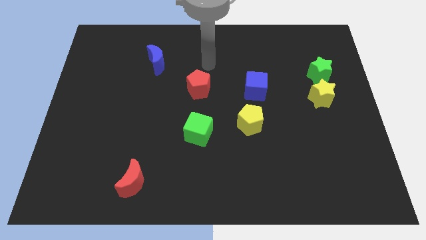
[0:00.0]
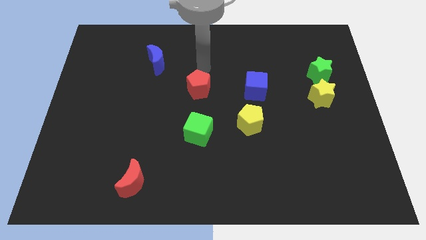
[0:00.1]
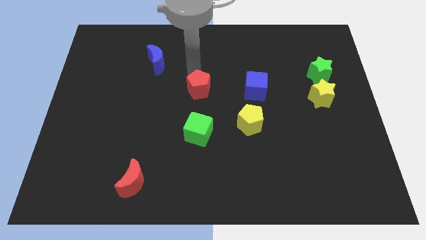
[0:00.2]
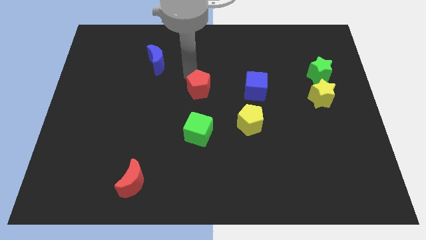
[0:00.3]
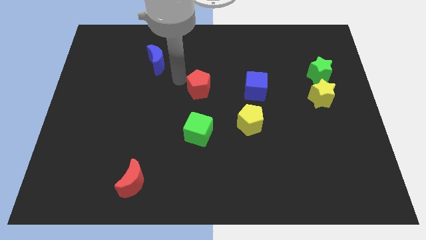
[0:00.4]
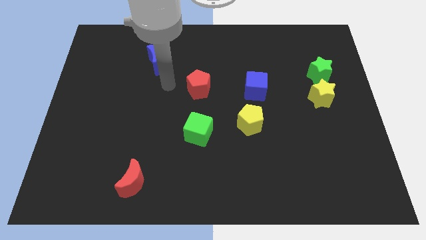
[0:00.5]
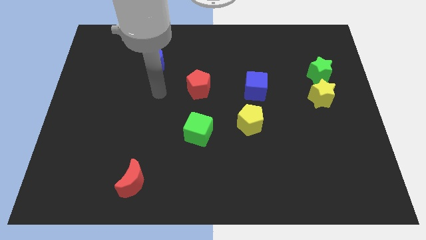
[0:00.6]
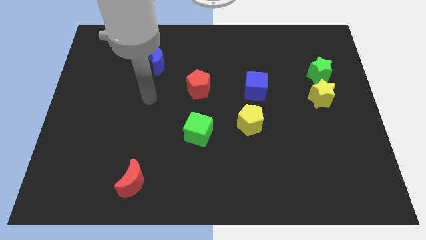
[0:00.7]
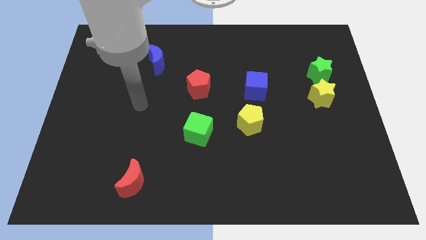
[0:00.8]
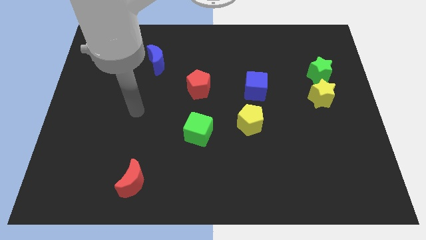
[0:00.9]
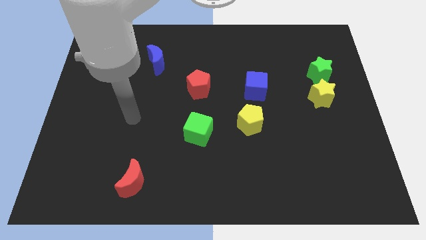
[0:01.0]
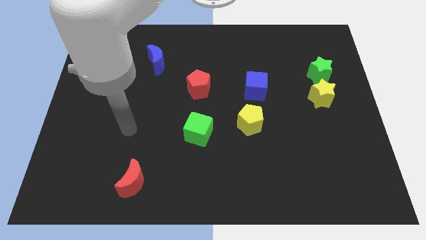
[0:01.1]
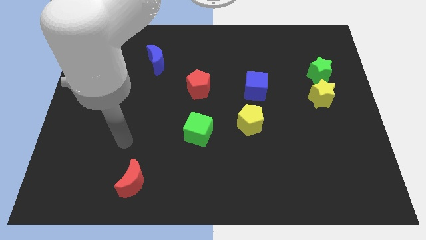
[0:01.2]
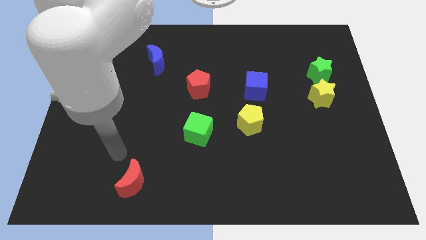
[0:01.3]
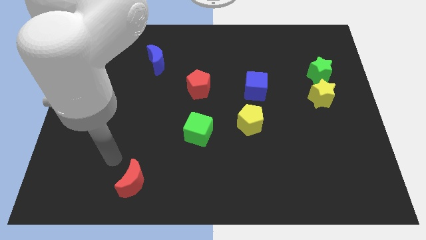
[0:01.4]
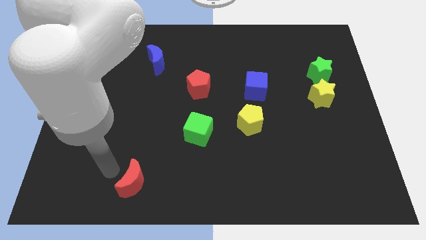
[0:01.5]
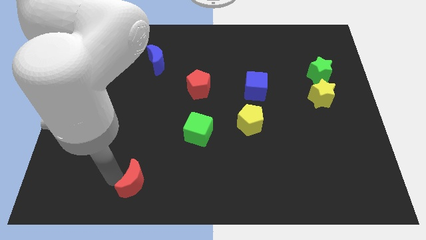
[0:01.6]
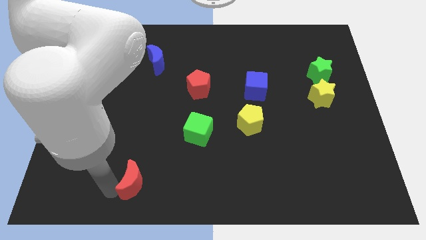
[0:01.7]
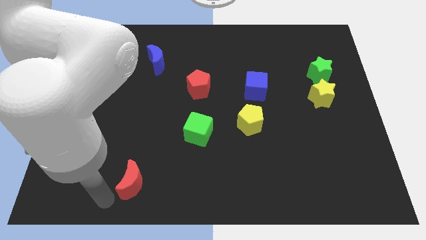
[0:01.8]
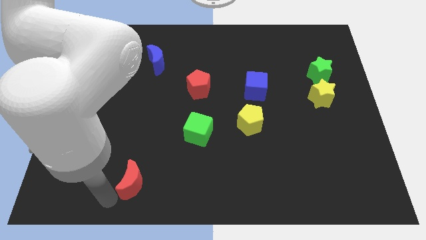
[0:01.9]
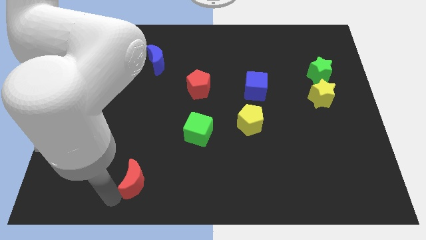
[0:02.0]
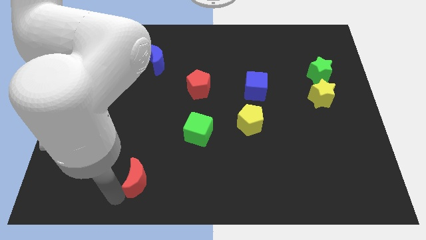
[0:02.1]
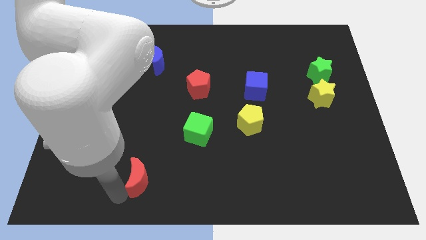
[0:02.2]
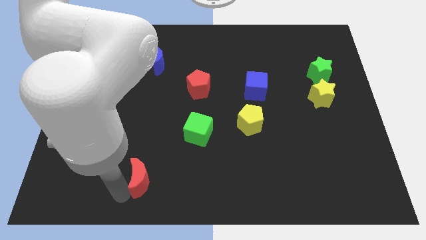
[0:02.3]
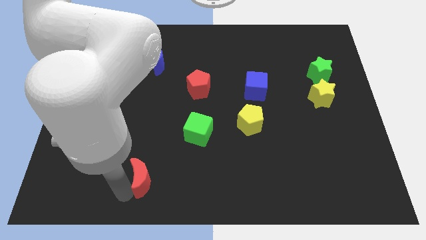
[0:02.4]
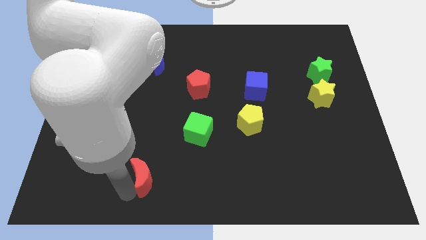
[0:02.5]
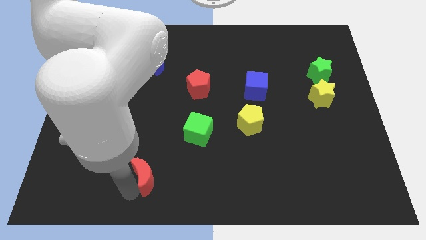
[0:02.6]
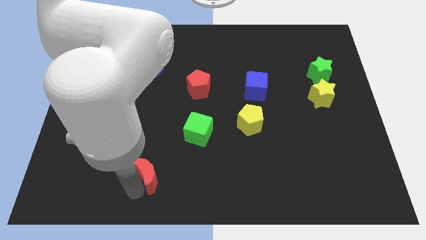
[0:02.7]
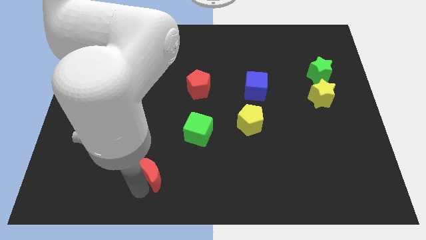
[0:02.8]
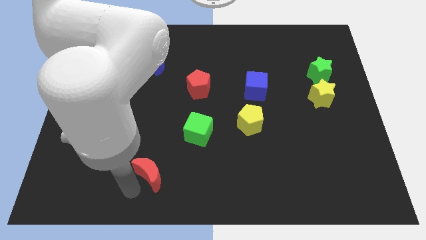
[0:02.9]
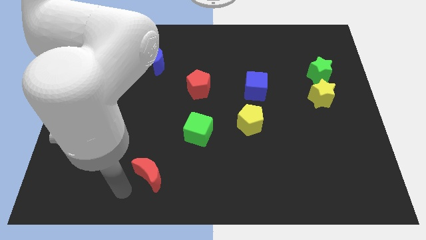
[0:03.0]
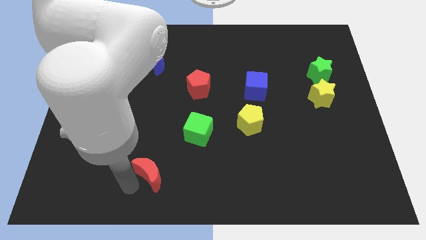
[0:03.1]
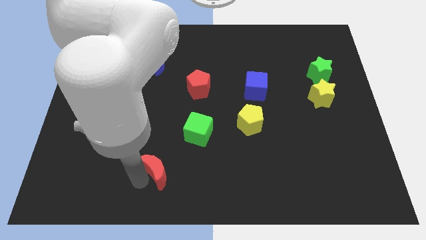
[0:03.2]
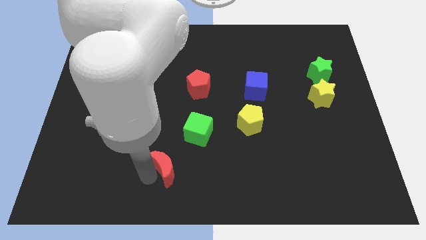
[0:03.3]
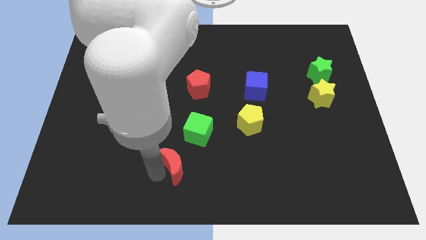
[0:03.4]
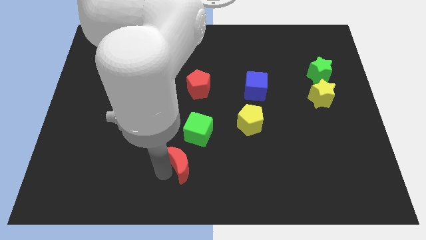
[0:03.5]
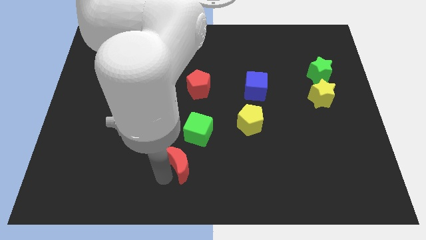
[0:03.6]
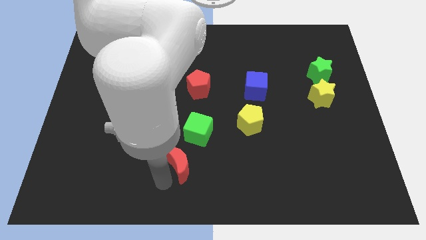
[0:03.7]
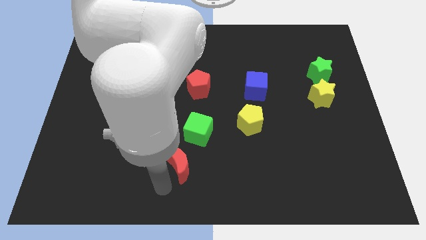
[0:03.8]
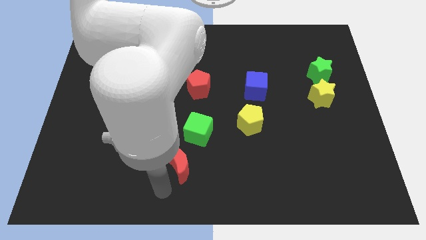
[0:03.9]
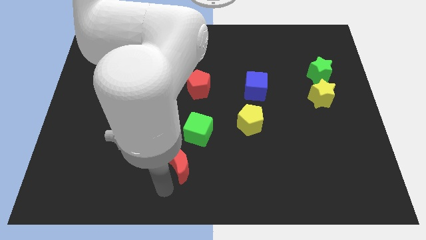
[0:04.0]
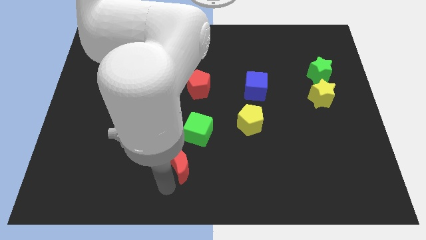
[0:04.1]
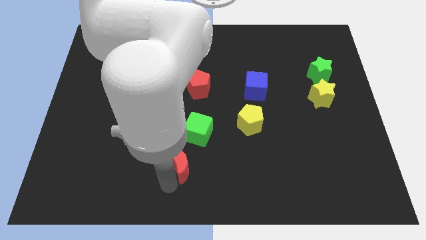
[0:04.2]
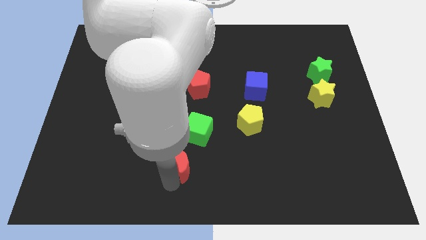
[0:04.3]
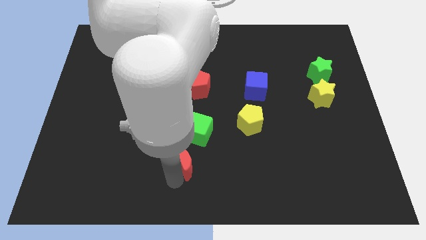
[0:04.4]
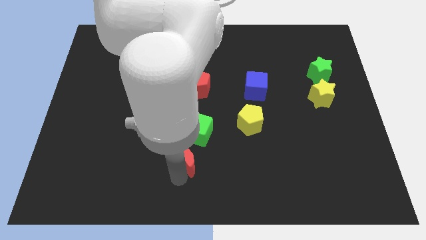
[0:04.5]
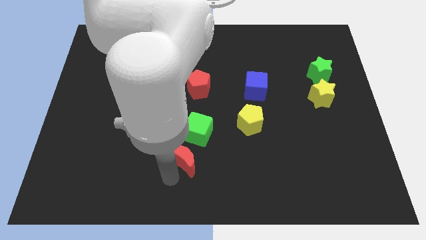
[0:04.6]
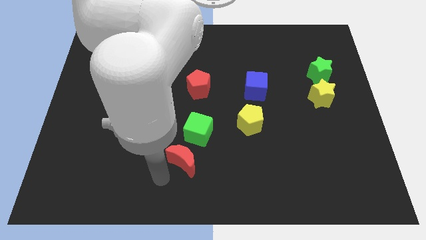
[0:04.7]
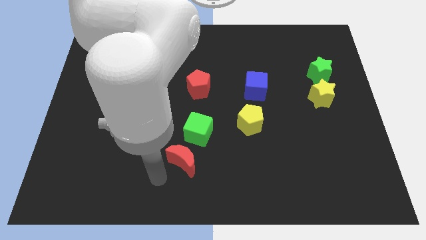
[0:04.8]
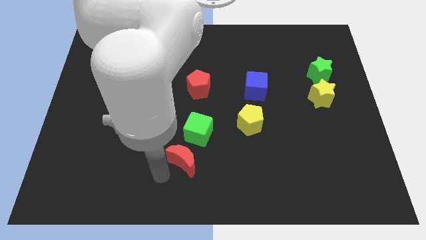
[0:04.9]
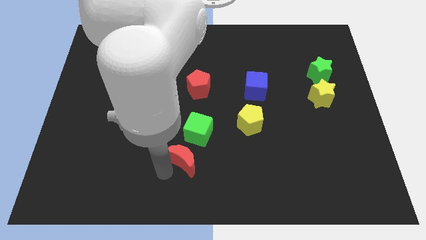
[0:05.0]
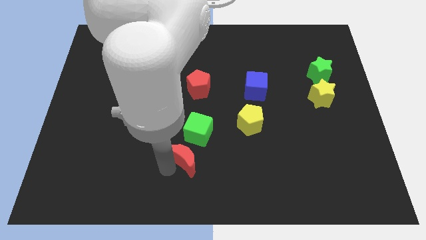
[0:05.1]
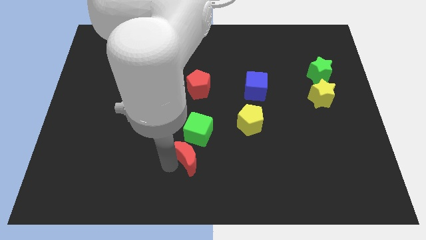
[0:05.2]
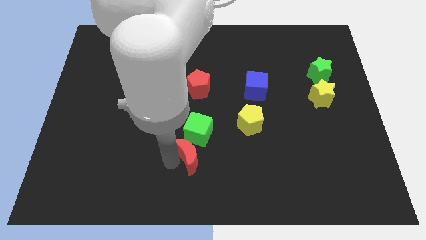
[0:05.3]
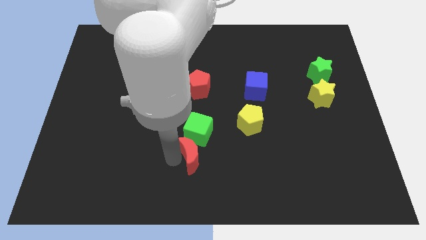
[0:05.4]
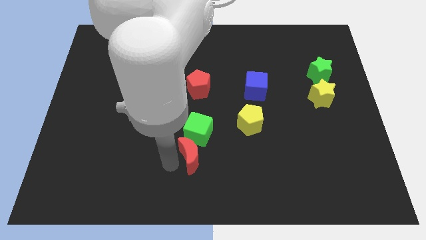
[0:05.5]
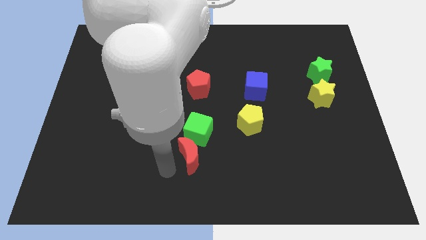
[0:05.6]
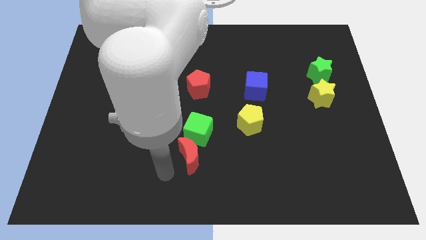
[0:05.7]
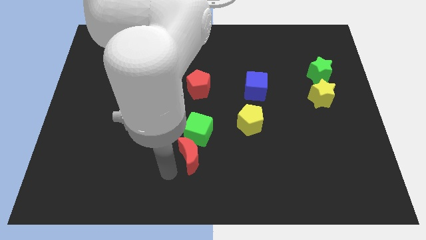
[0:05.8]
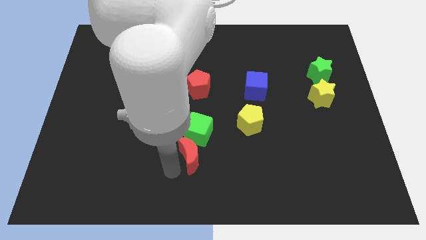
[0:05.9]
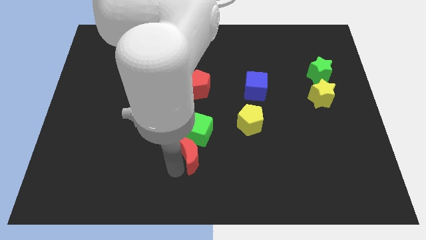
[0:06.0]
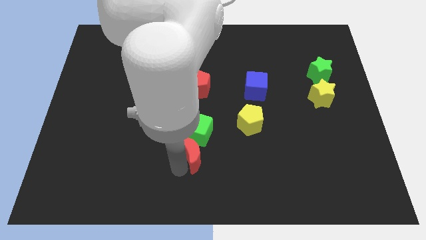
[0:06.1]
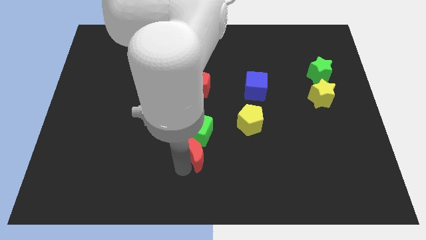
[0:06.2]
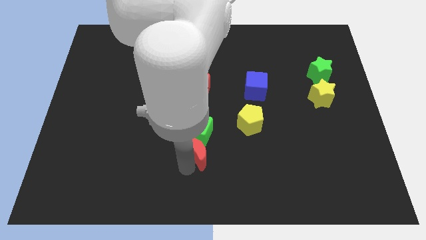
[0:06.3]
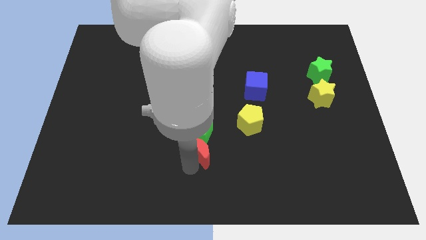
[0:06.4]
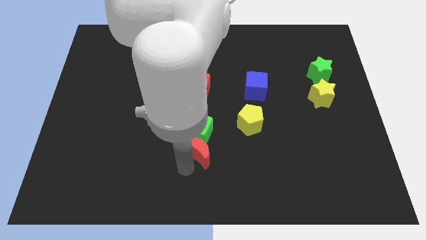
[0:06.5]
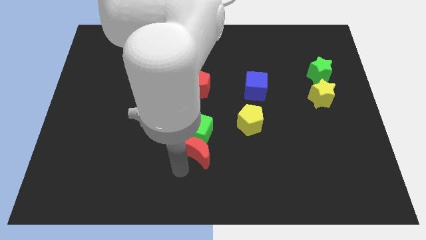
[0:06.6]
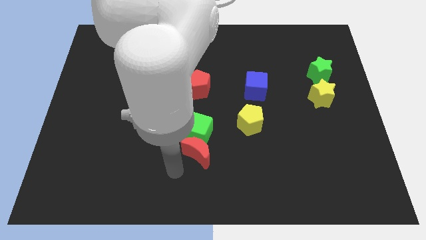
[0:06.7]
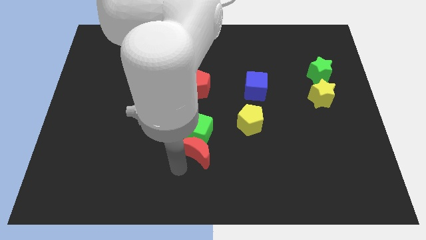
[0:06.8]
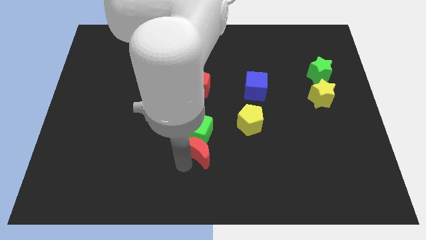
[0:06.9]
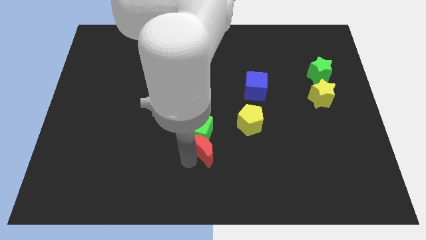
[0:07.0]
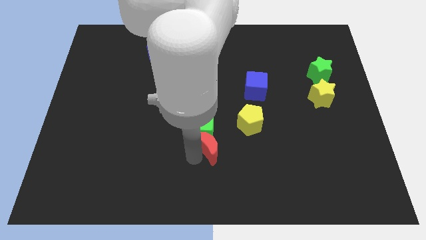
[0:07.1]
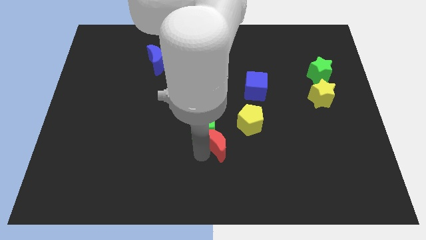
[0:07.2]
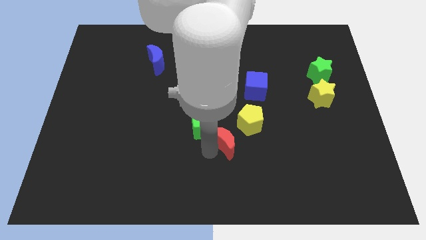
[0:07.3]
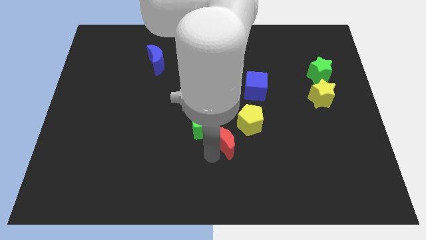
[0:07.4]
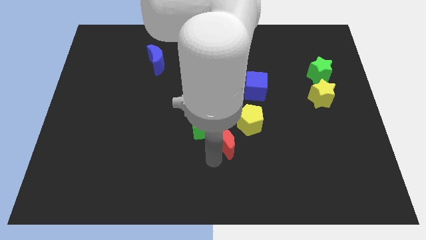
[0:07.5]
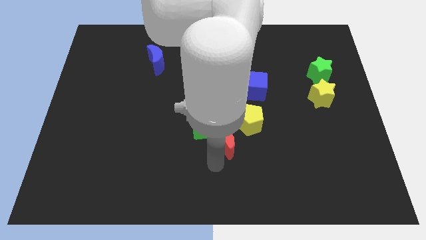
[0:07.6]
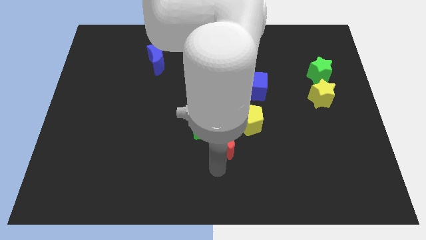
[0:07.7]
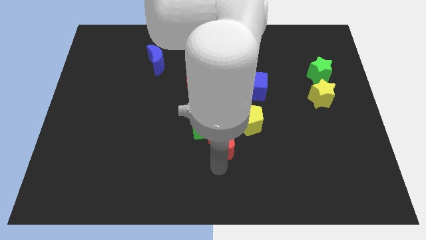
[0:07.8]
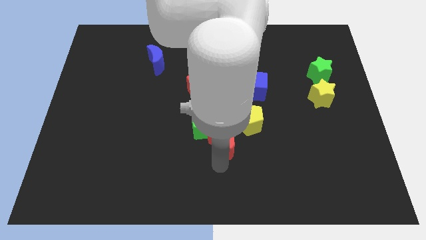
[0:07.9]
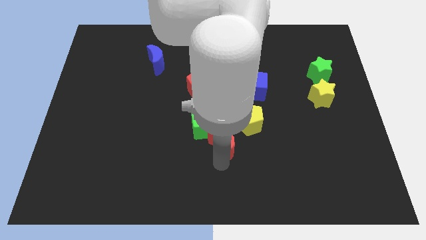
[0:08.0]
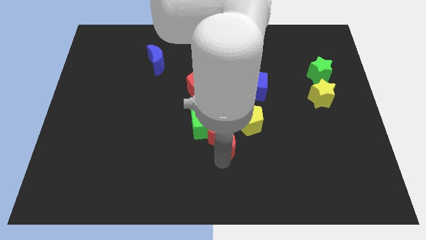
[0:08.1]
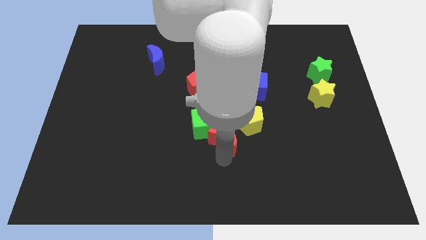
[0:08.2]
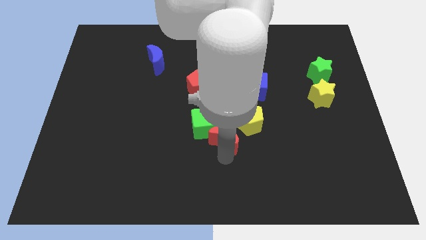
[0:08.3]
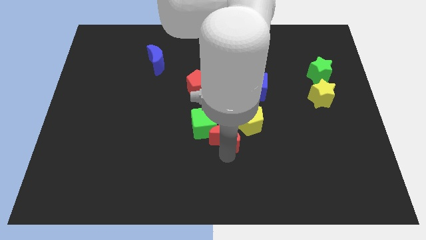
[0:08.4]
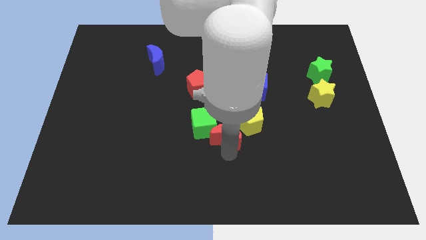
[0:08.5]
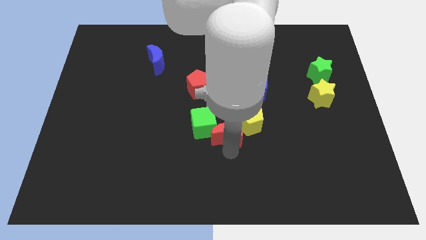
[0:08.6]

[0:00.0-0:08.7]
slide the red moon upwards and to the right
